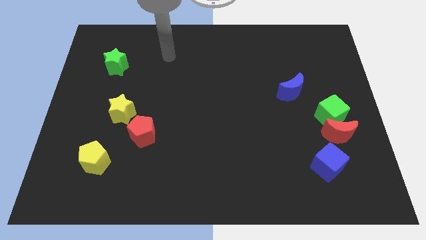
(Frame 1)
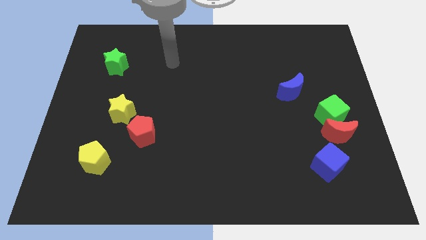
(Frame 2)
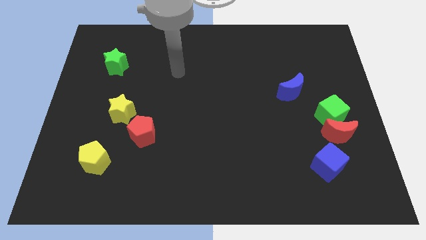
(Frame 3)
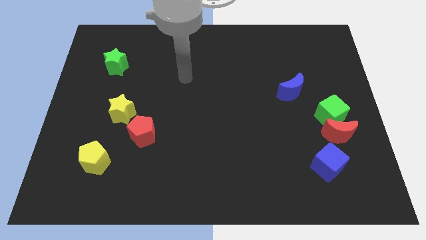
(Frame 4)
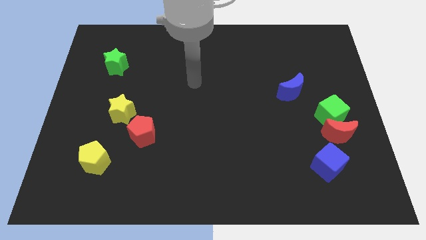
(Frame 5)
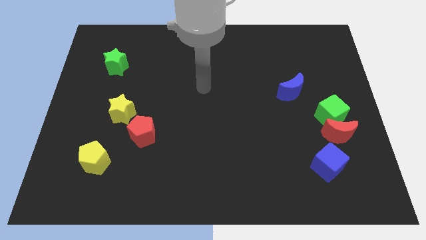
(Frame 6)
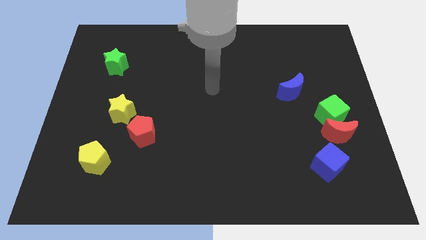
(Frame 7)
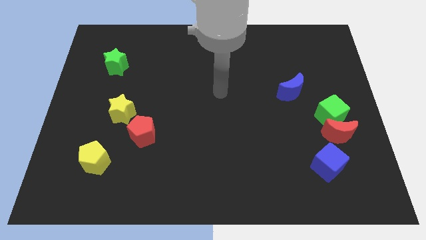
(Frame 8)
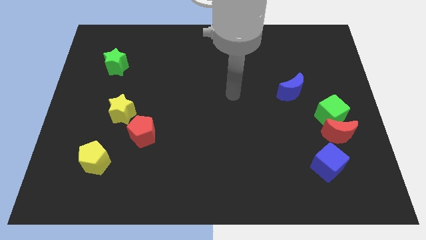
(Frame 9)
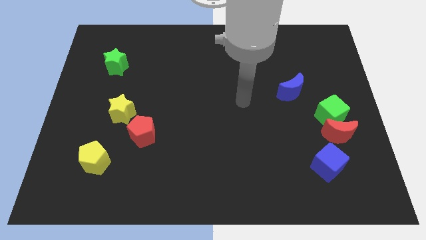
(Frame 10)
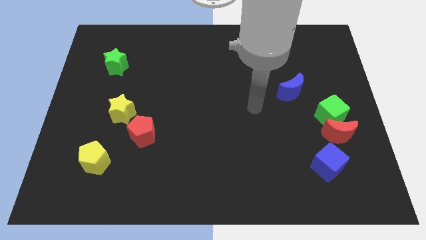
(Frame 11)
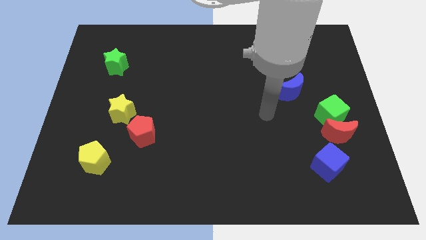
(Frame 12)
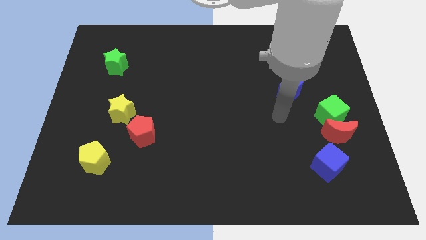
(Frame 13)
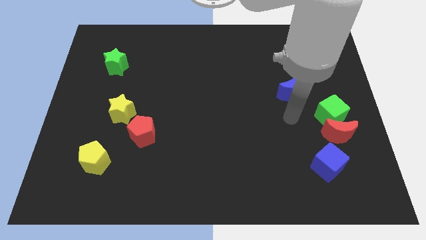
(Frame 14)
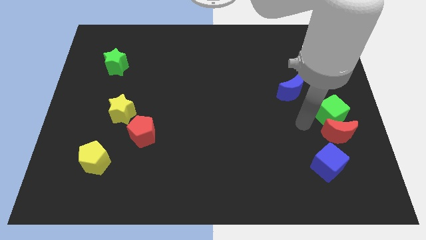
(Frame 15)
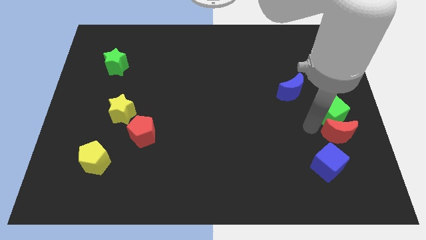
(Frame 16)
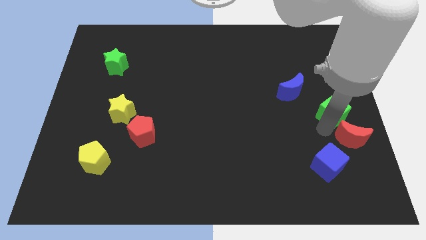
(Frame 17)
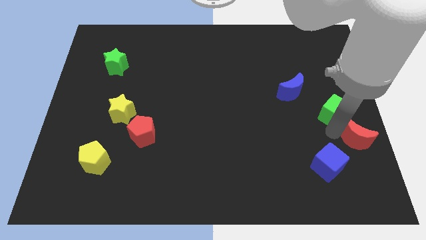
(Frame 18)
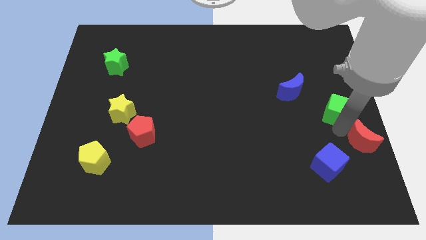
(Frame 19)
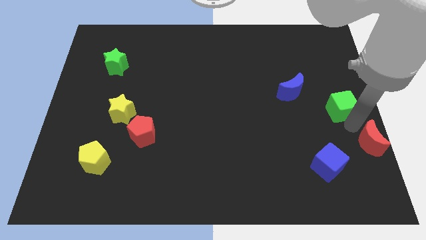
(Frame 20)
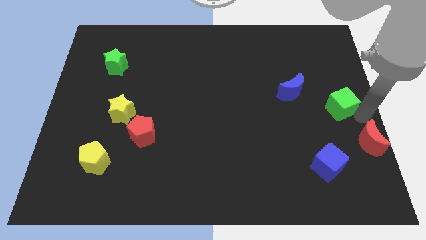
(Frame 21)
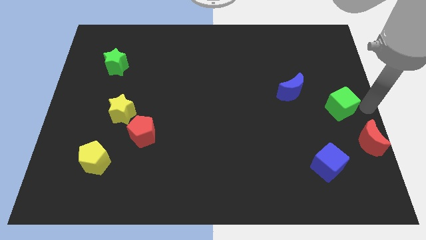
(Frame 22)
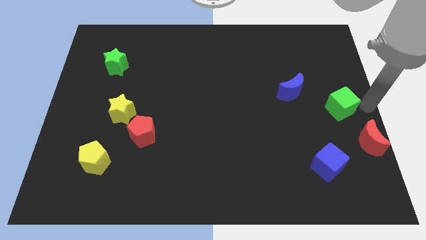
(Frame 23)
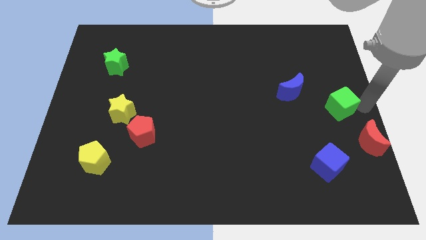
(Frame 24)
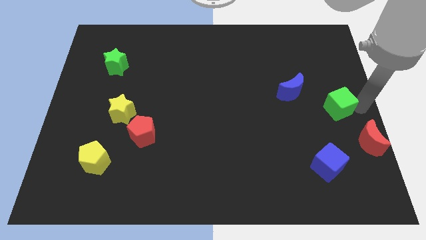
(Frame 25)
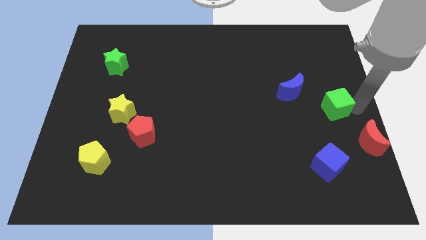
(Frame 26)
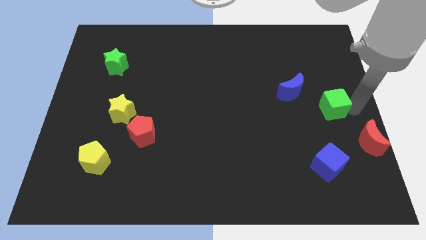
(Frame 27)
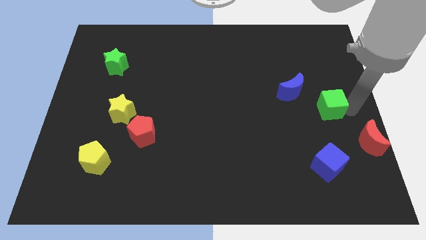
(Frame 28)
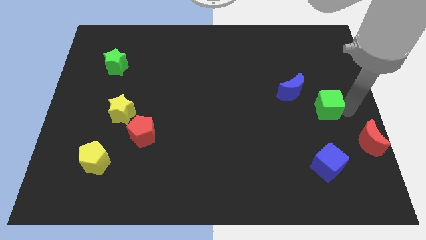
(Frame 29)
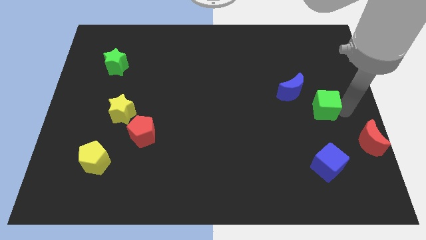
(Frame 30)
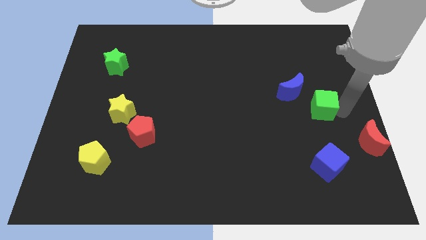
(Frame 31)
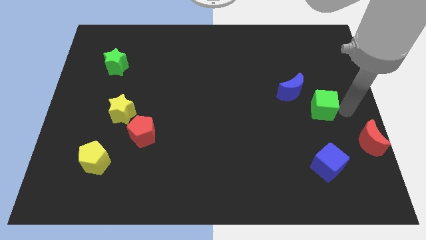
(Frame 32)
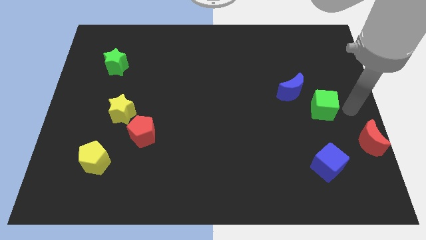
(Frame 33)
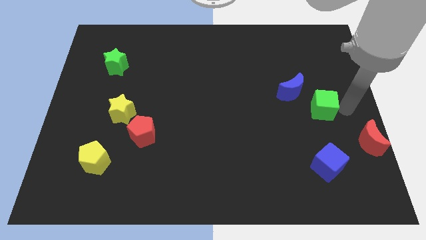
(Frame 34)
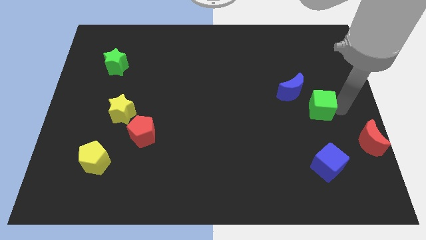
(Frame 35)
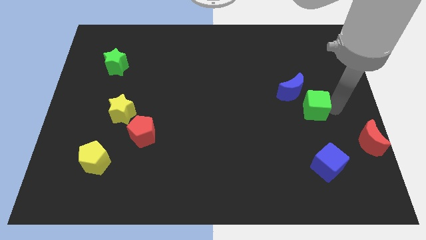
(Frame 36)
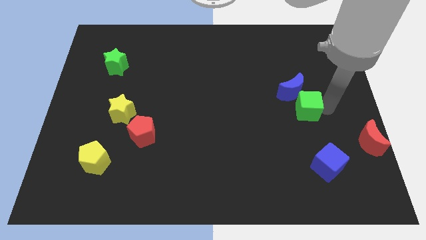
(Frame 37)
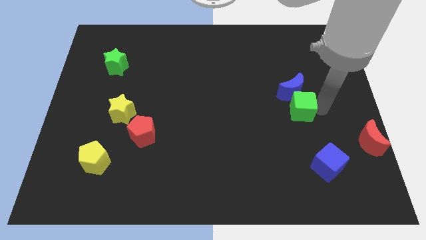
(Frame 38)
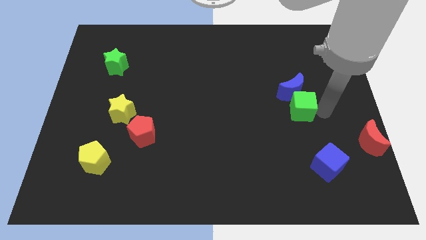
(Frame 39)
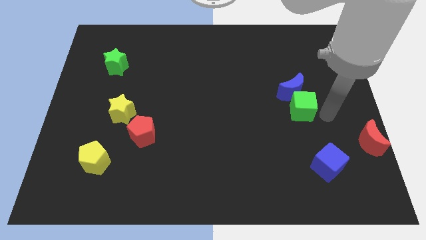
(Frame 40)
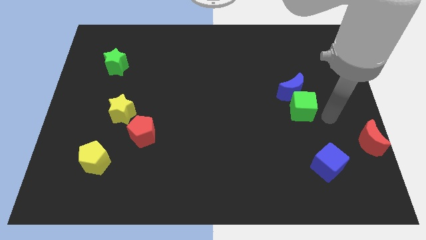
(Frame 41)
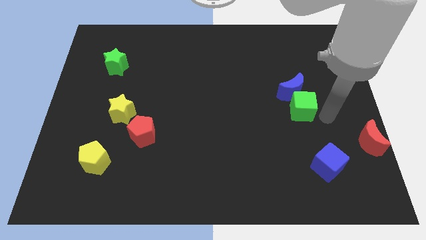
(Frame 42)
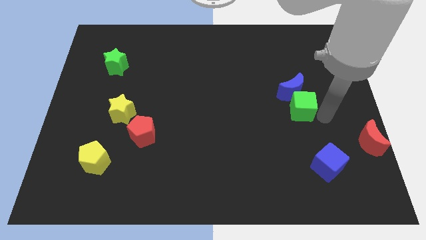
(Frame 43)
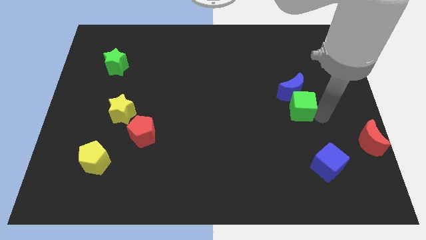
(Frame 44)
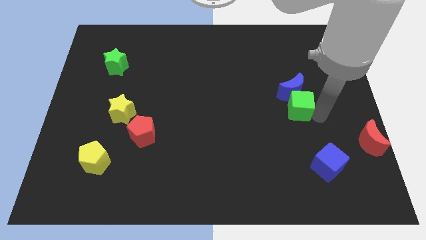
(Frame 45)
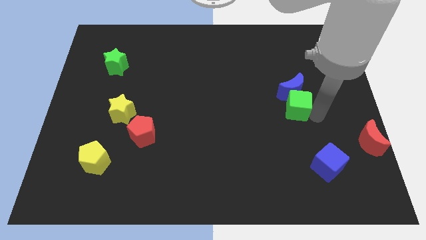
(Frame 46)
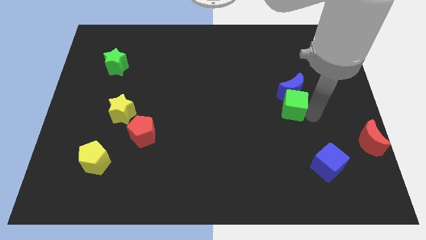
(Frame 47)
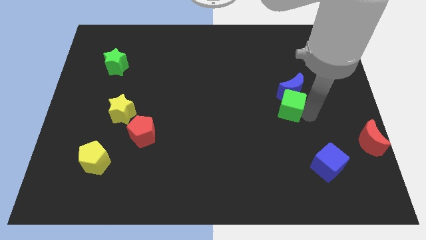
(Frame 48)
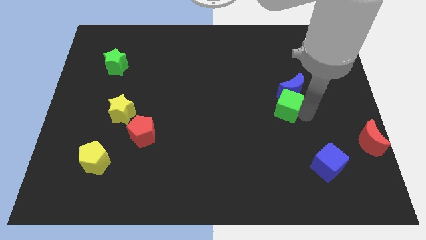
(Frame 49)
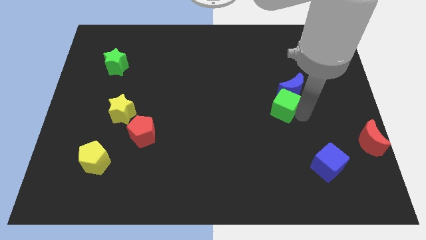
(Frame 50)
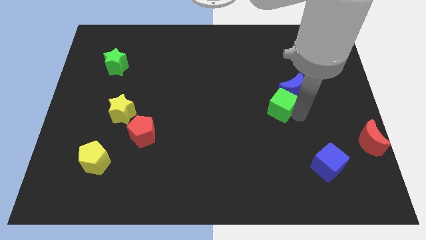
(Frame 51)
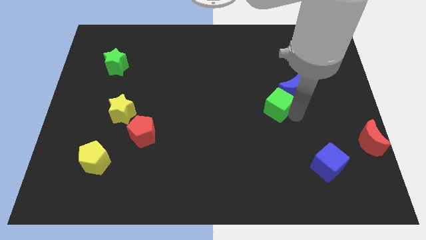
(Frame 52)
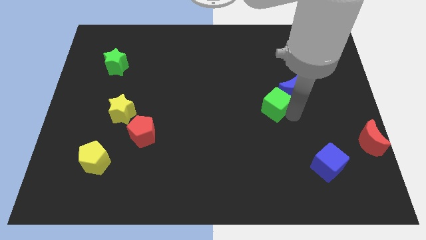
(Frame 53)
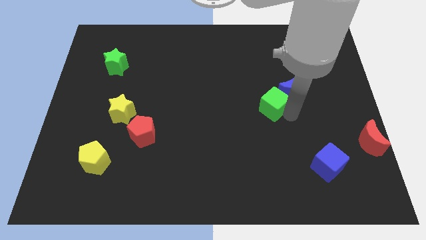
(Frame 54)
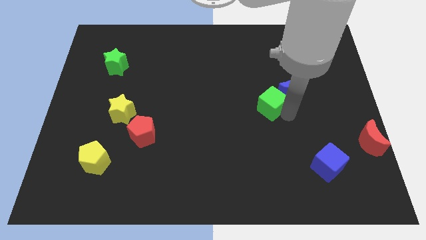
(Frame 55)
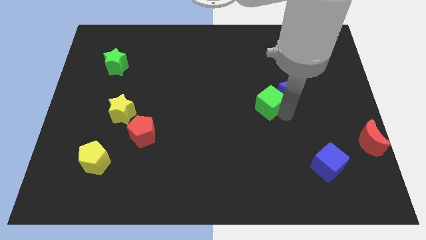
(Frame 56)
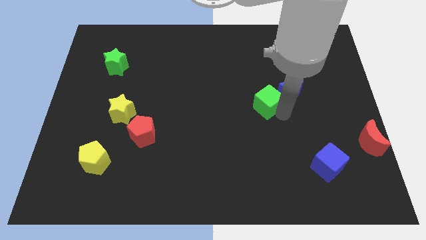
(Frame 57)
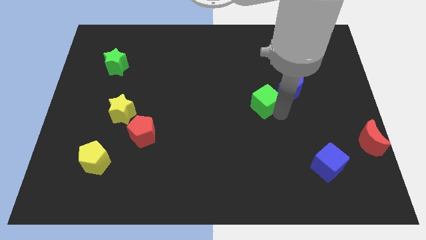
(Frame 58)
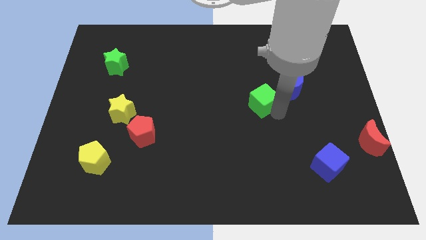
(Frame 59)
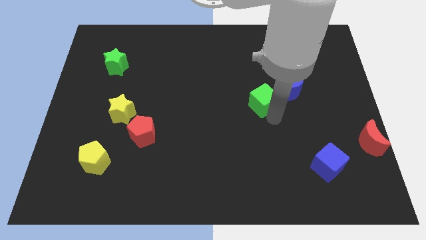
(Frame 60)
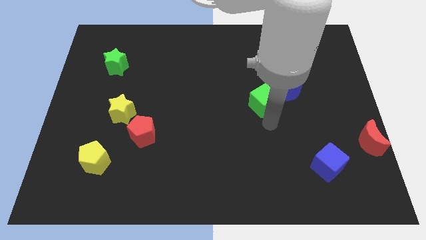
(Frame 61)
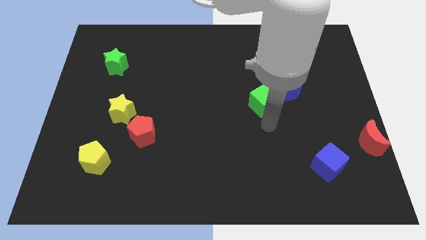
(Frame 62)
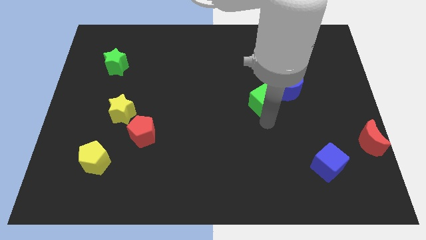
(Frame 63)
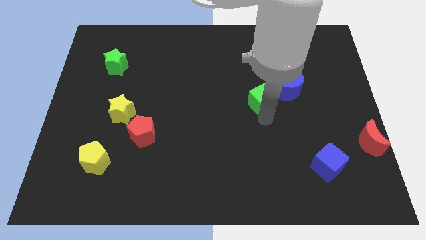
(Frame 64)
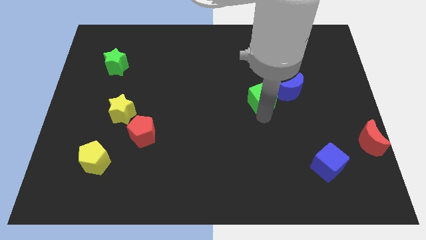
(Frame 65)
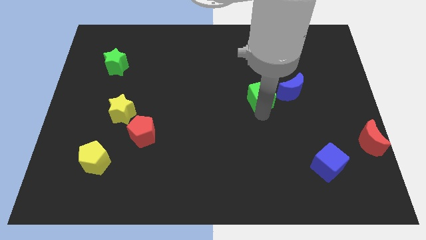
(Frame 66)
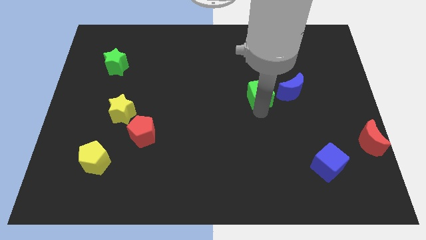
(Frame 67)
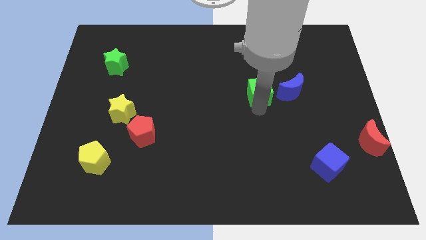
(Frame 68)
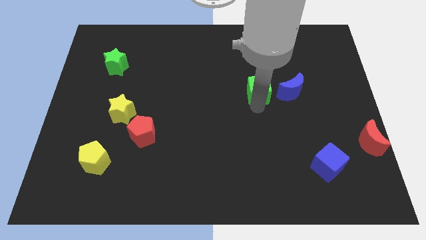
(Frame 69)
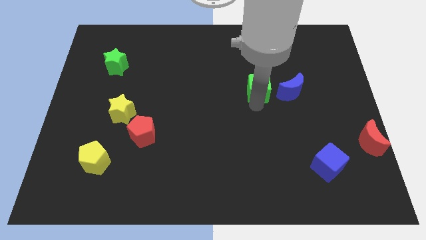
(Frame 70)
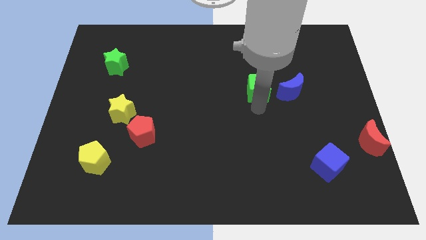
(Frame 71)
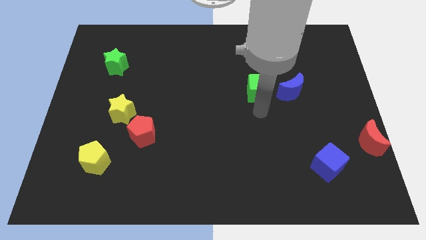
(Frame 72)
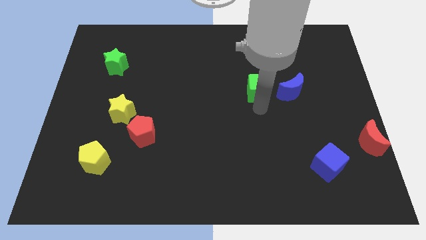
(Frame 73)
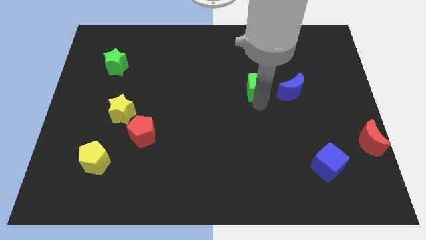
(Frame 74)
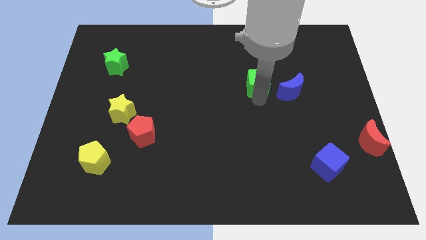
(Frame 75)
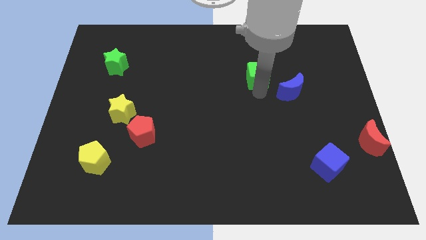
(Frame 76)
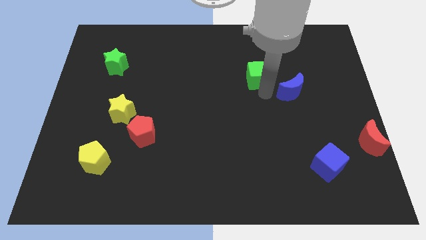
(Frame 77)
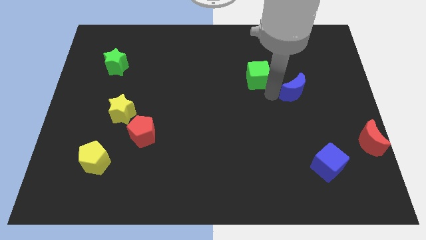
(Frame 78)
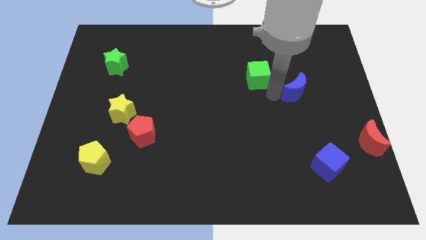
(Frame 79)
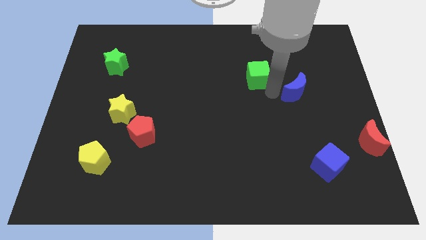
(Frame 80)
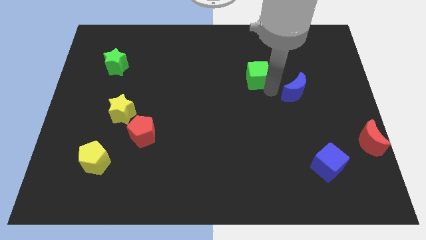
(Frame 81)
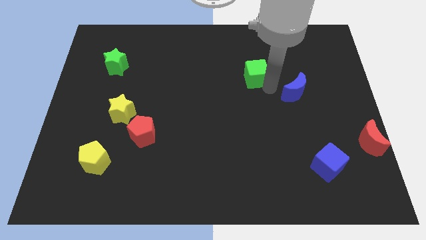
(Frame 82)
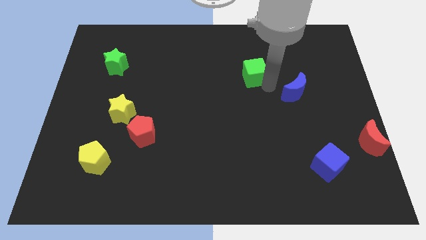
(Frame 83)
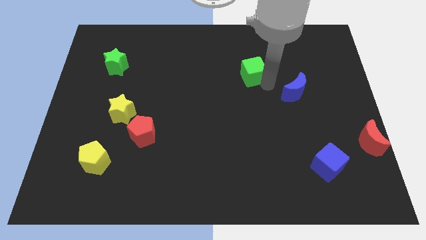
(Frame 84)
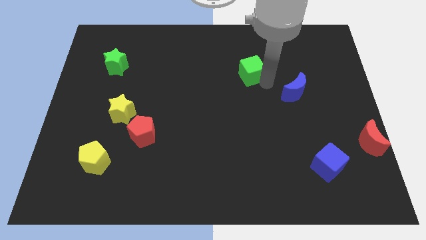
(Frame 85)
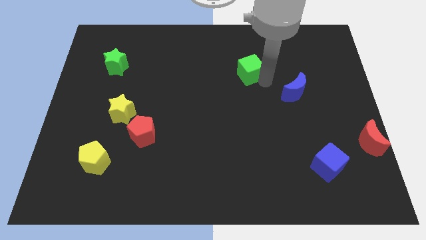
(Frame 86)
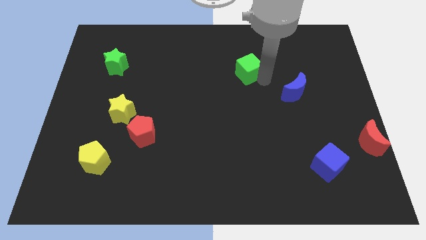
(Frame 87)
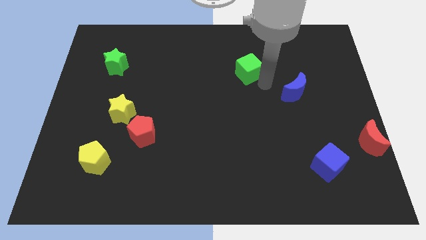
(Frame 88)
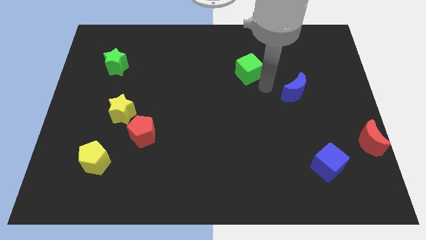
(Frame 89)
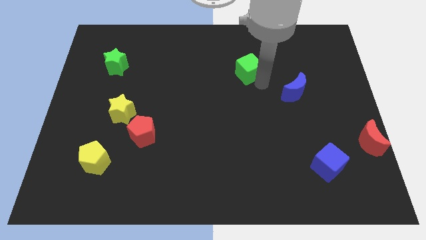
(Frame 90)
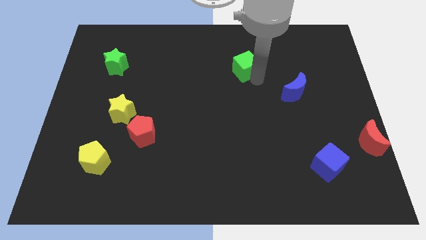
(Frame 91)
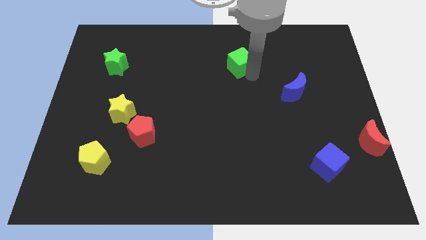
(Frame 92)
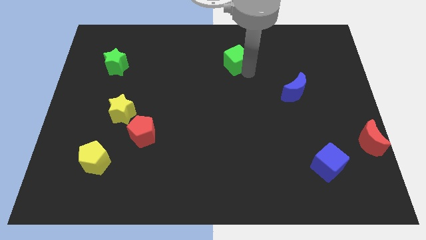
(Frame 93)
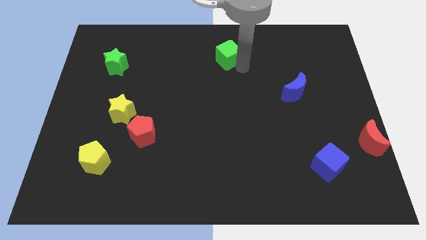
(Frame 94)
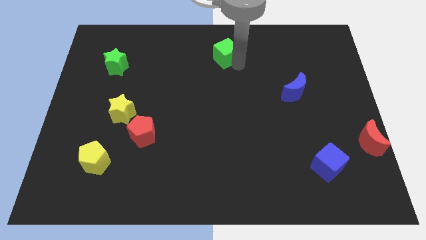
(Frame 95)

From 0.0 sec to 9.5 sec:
slide the green cube to the top
